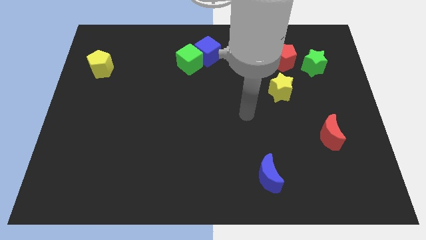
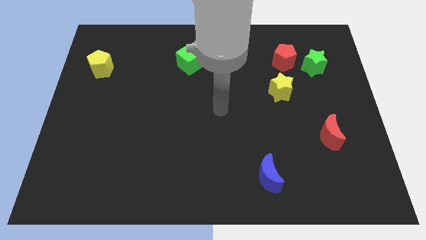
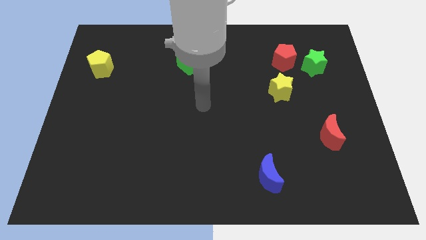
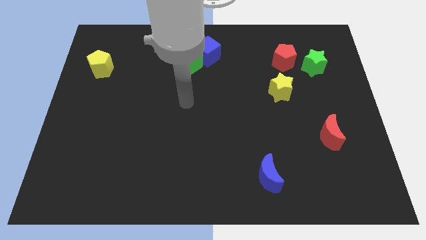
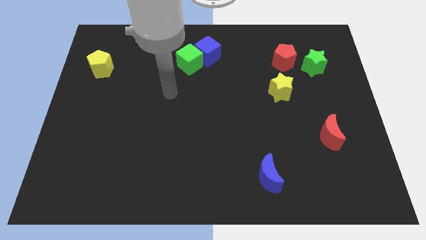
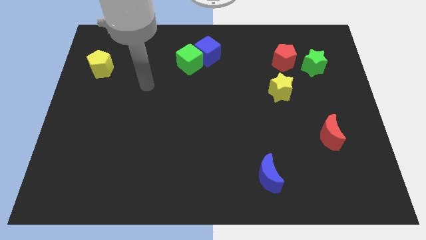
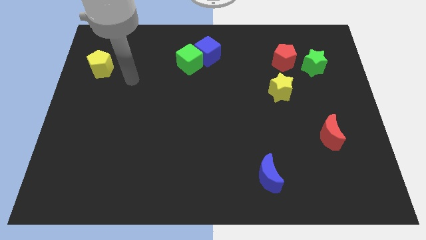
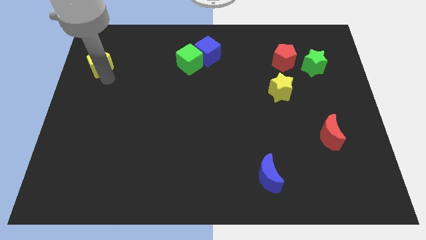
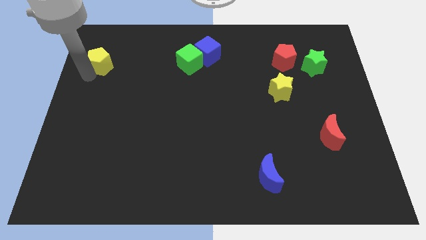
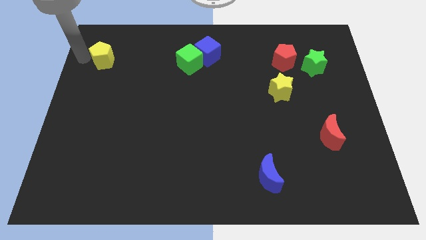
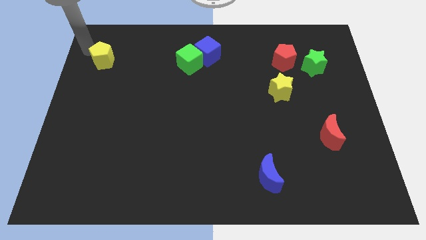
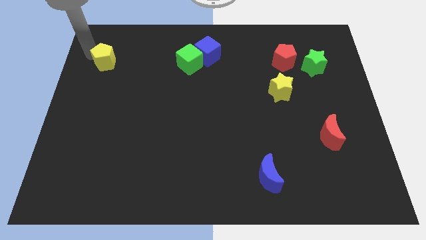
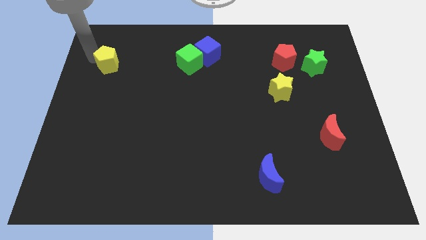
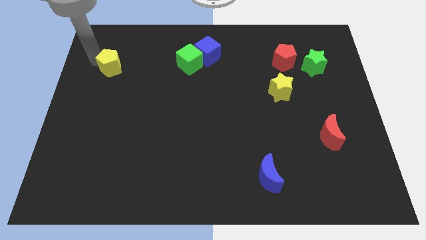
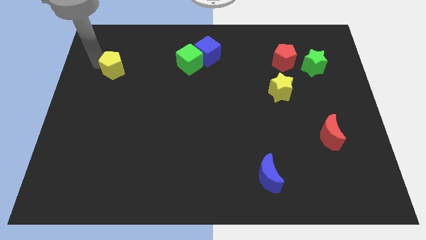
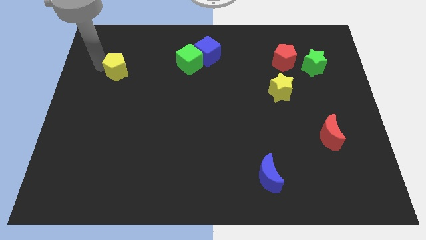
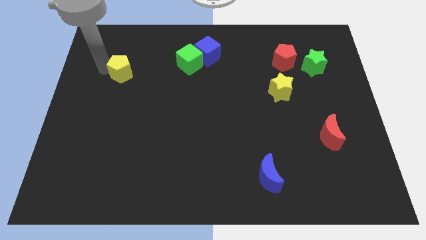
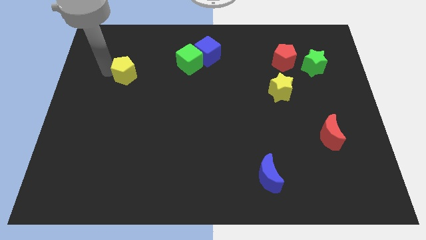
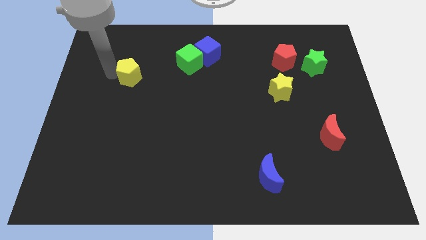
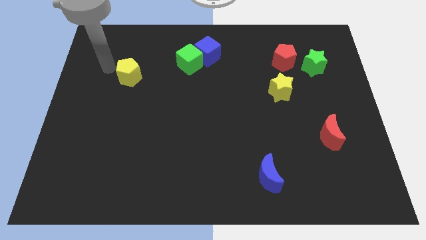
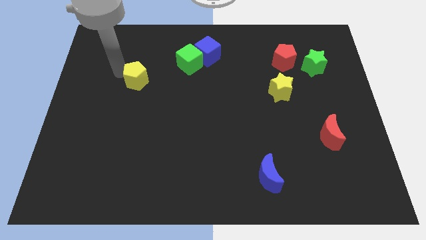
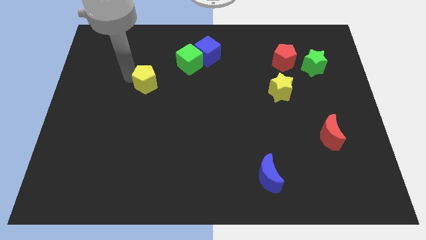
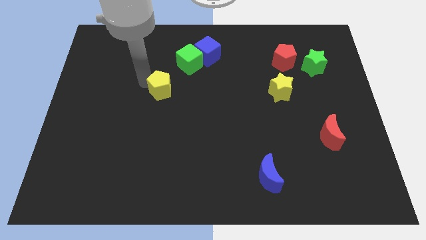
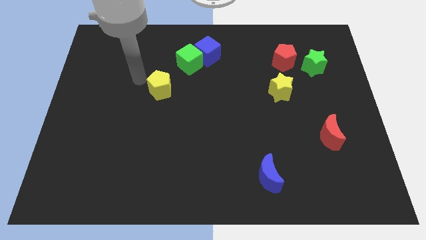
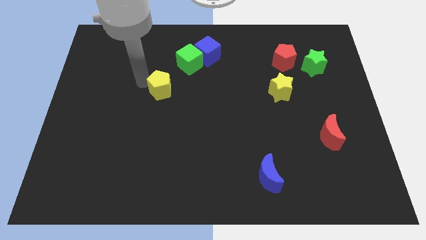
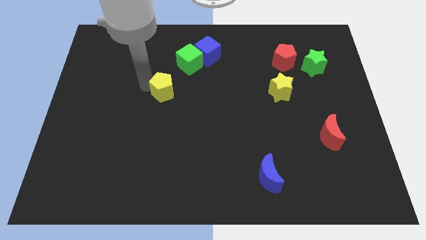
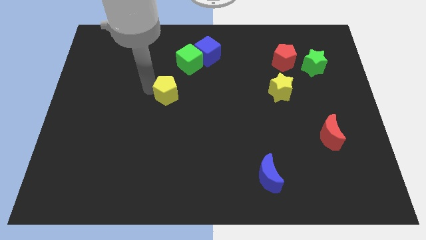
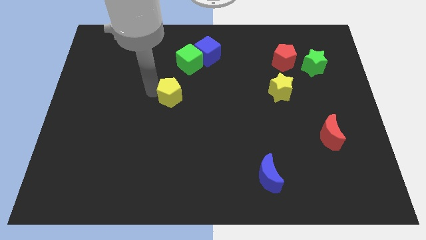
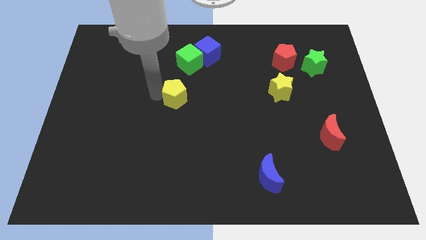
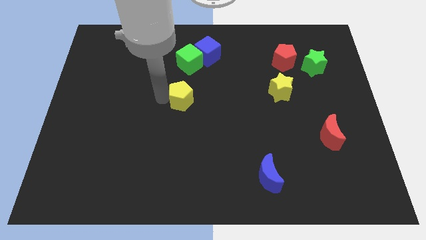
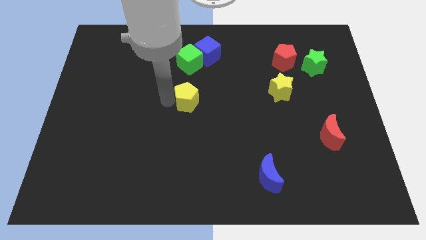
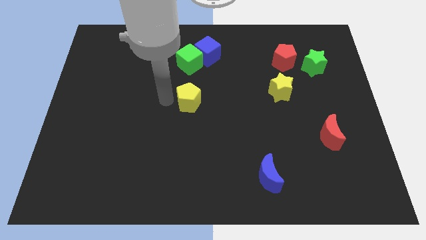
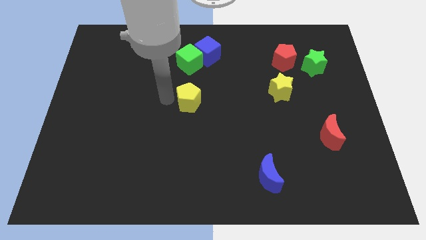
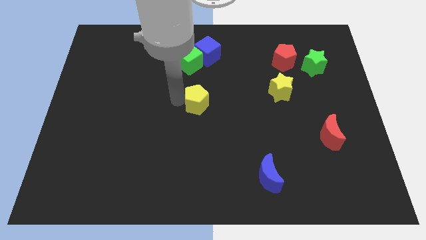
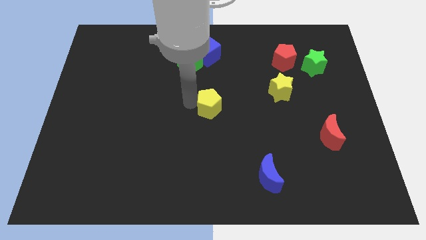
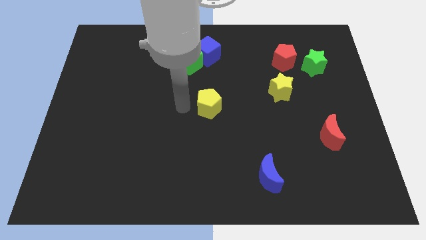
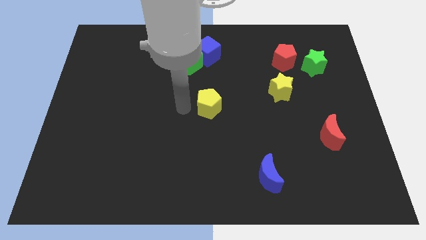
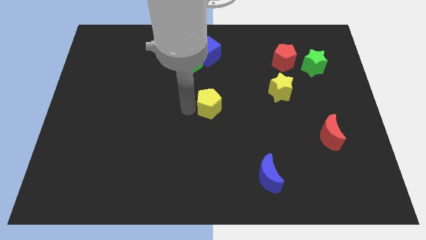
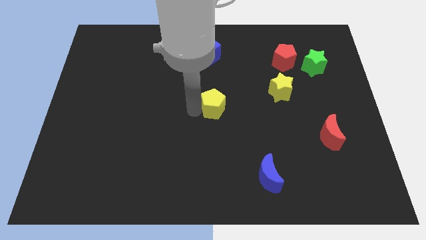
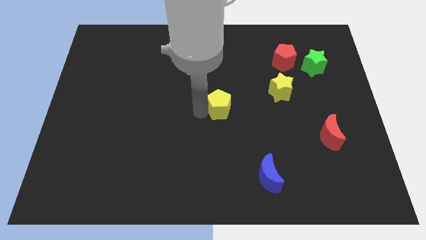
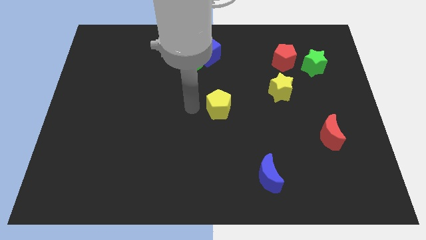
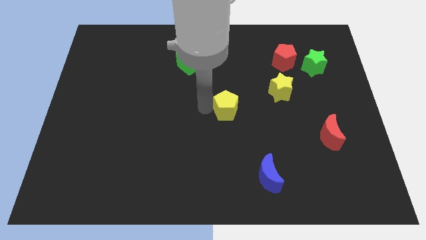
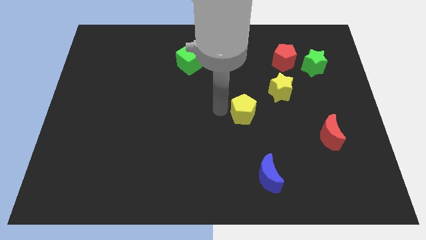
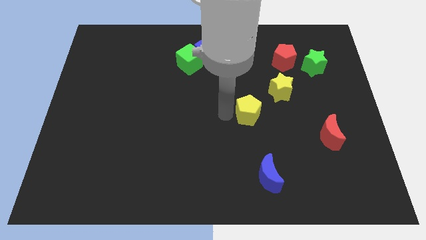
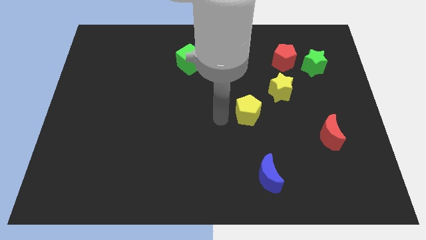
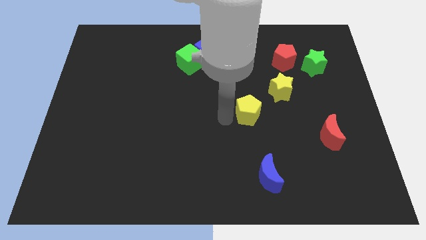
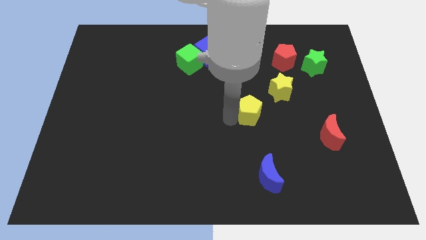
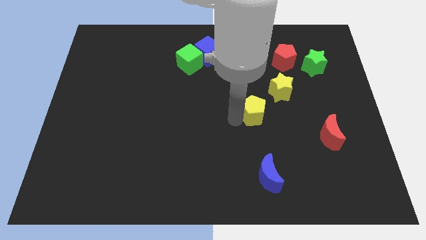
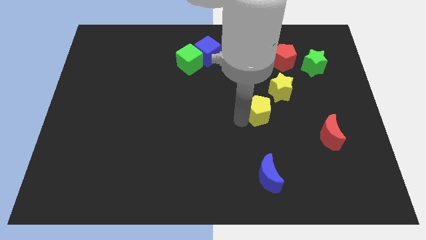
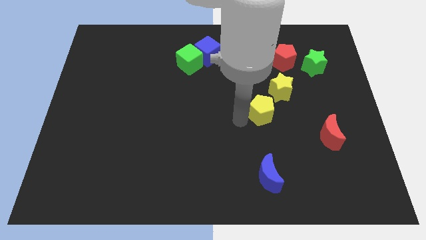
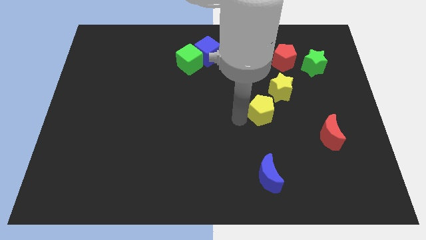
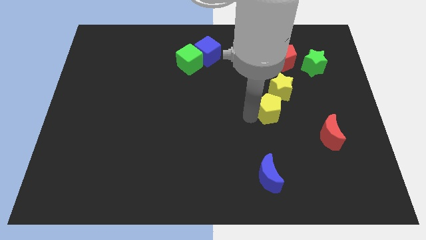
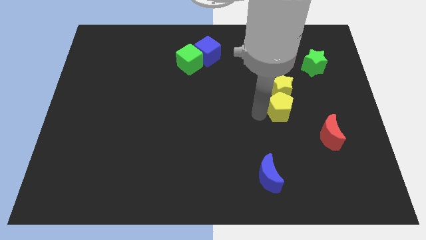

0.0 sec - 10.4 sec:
push the yellow pentagon to the bottom right of the yellow star

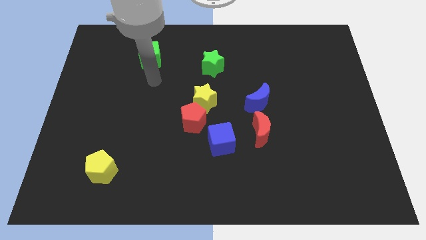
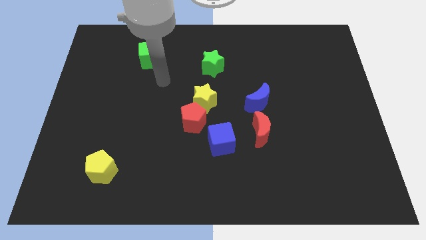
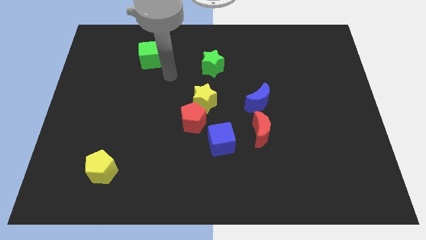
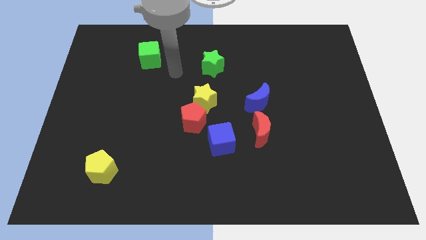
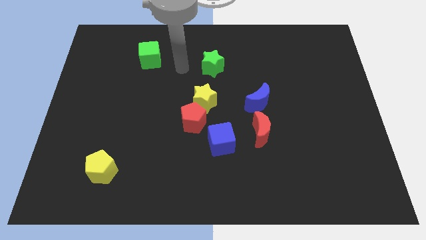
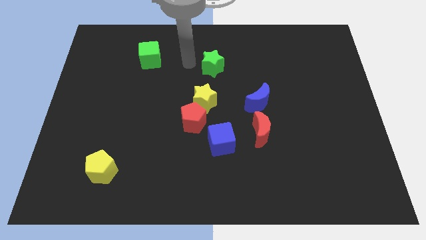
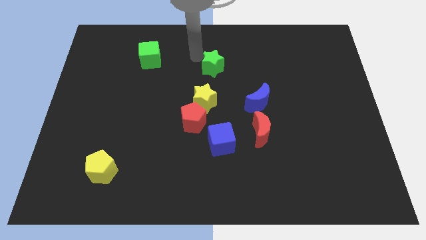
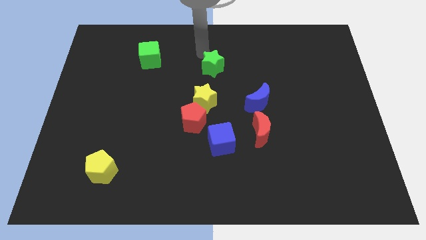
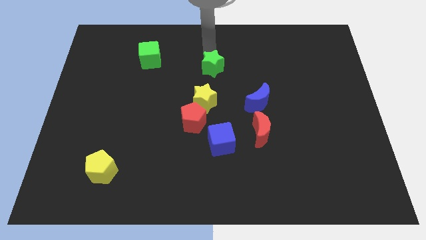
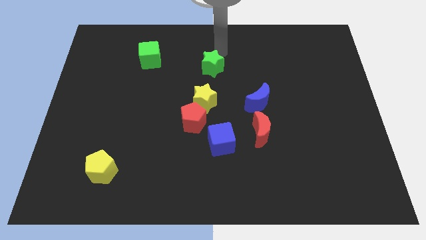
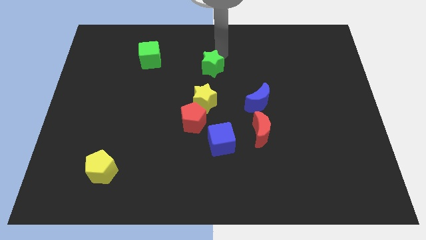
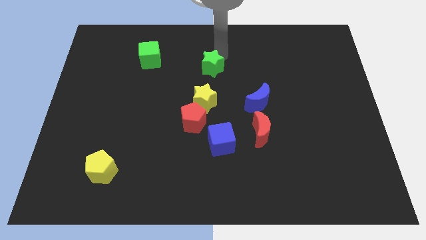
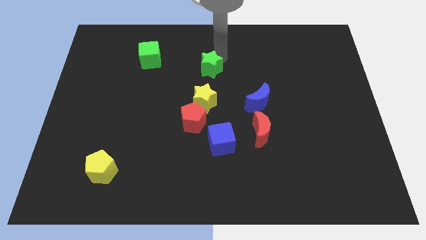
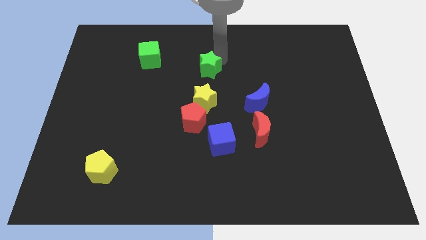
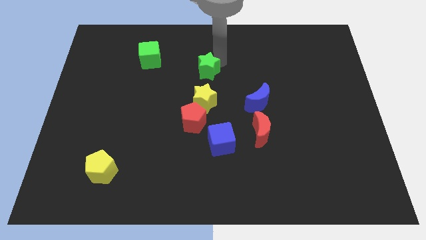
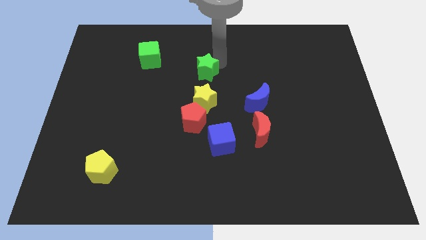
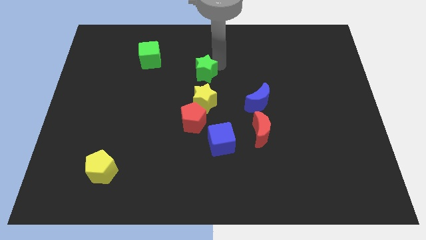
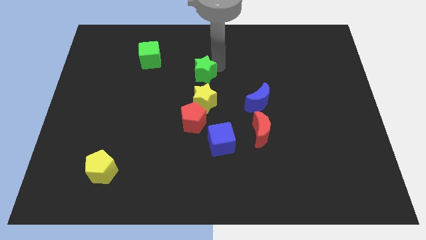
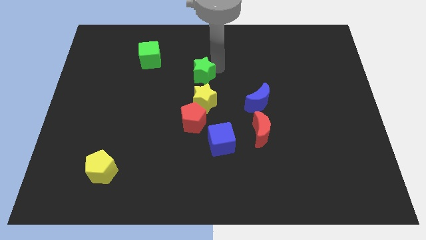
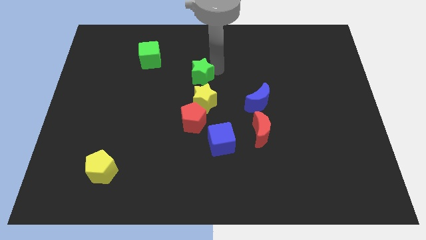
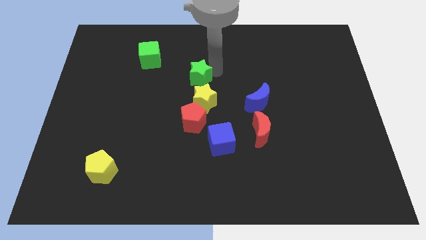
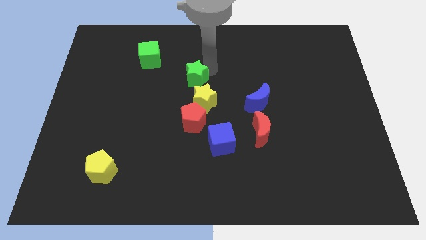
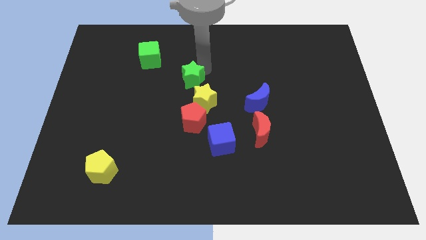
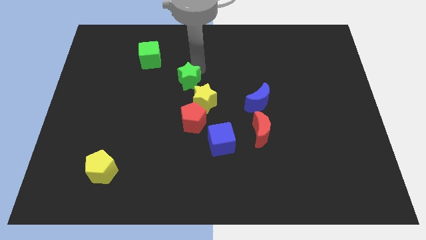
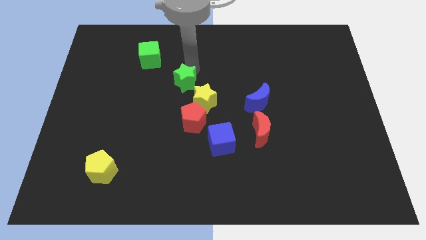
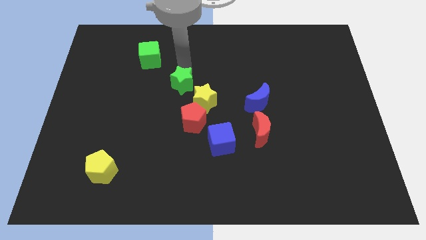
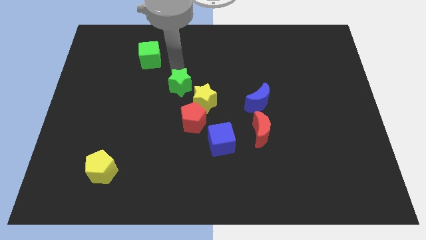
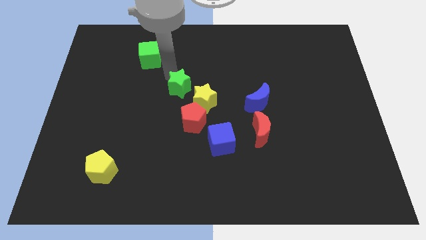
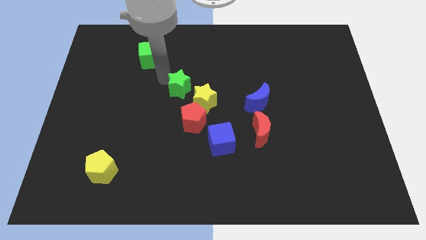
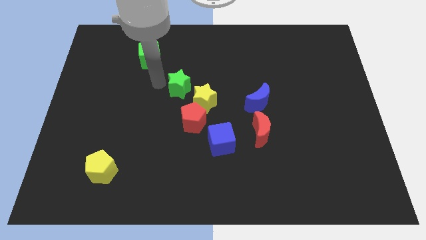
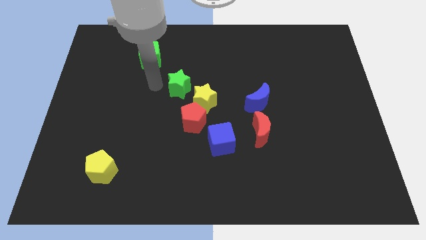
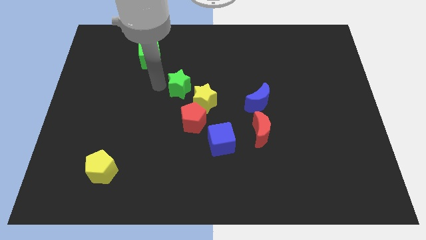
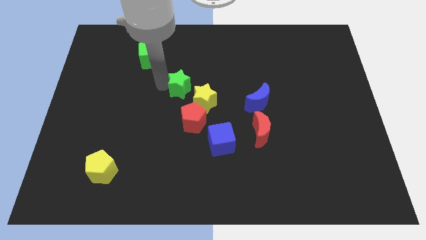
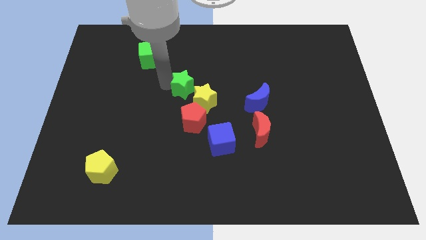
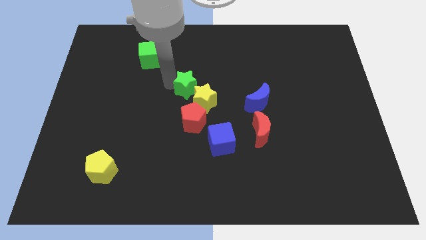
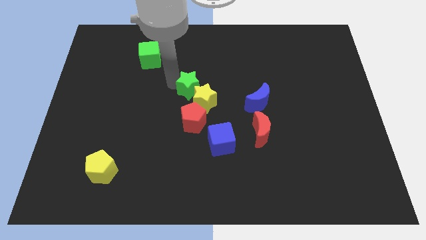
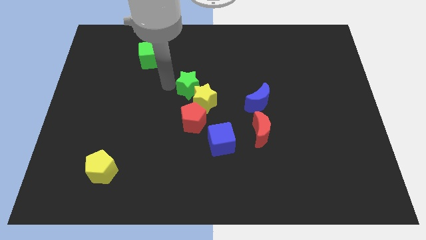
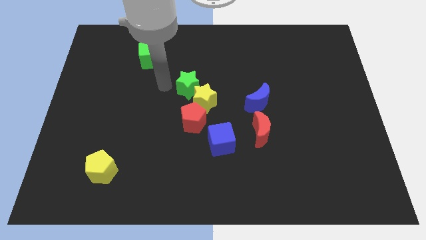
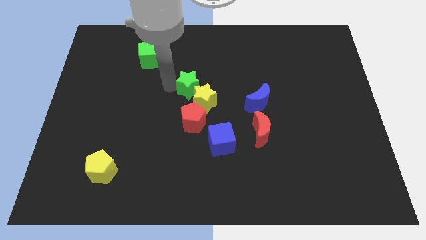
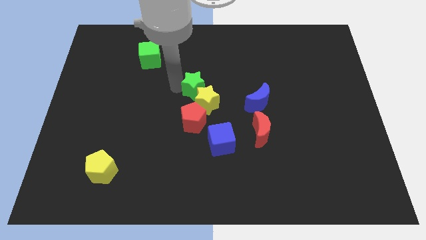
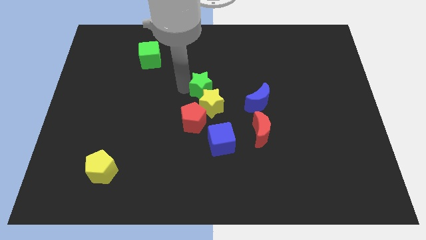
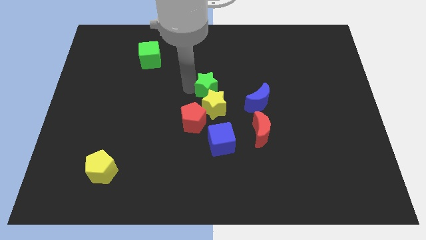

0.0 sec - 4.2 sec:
push the green star to the top right side of the red pentagon
